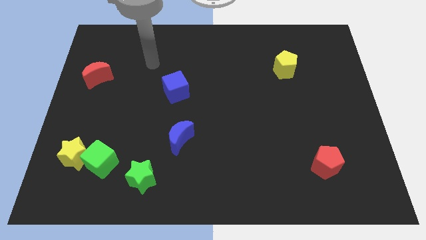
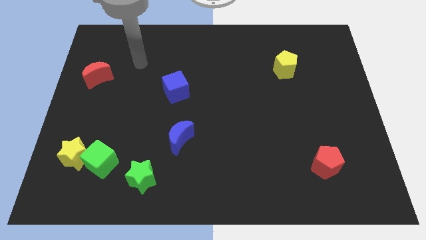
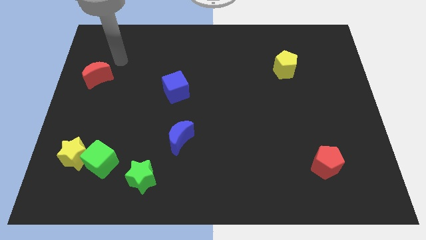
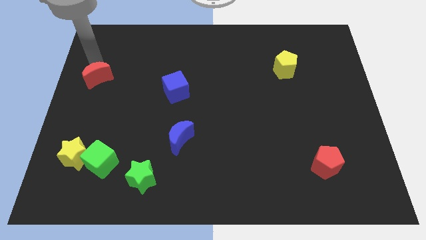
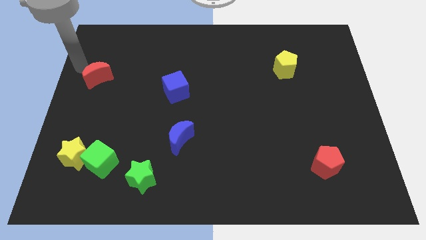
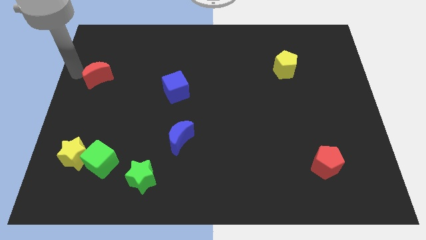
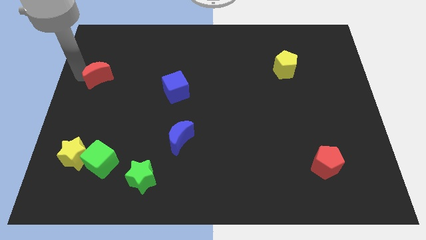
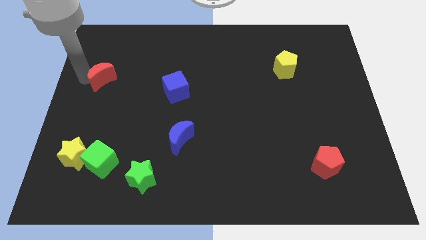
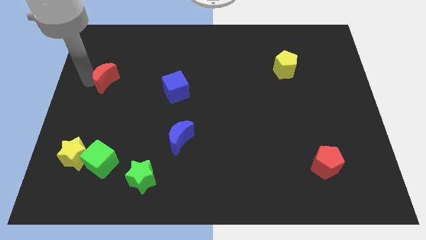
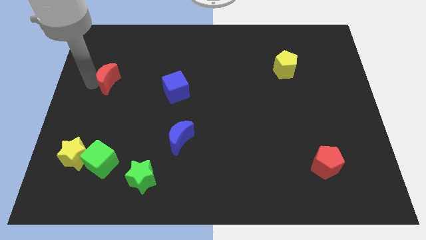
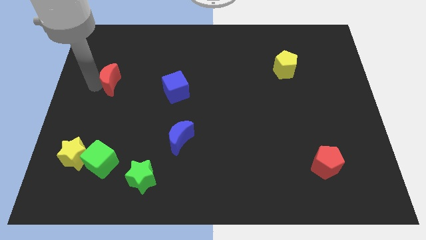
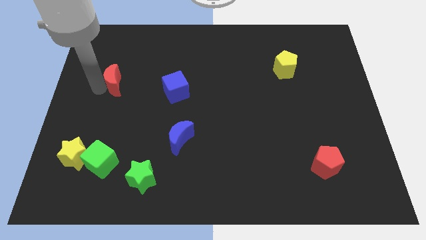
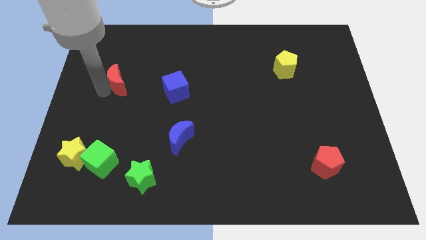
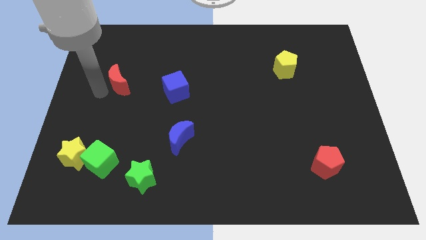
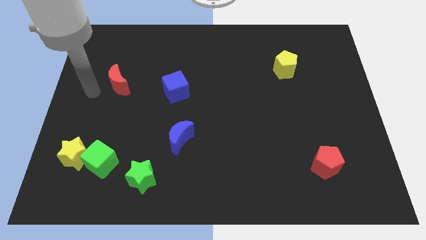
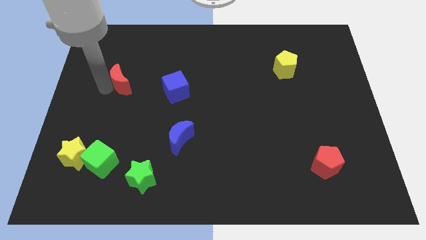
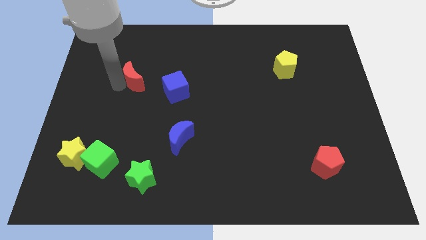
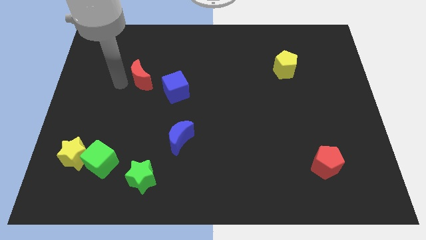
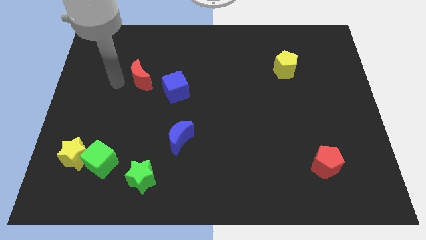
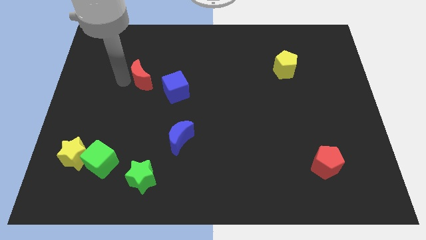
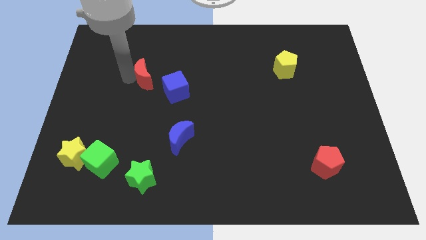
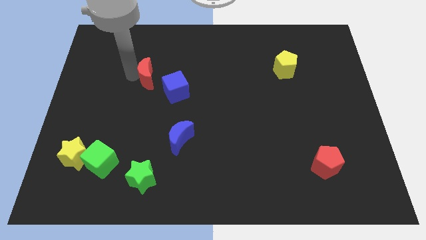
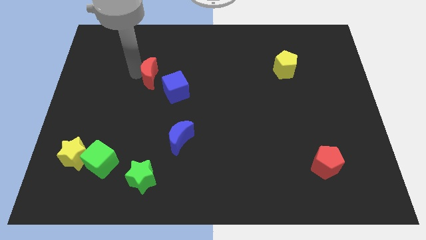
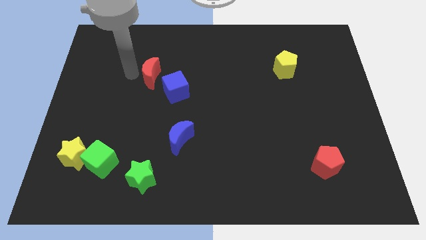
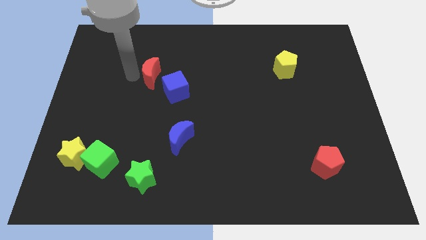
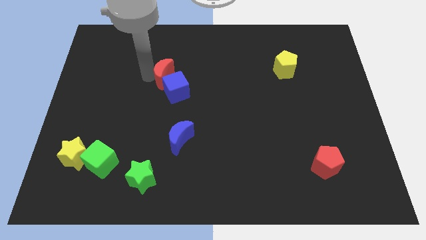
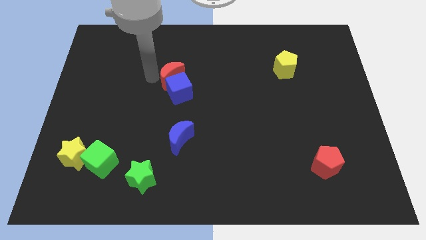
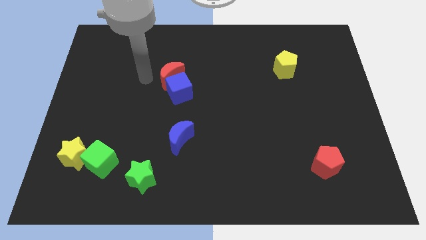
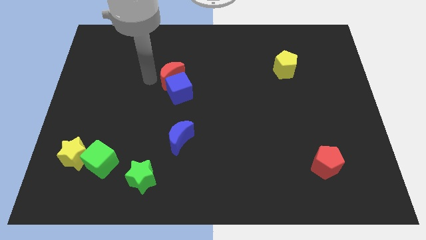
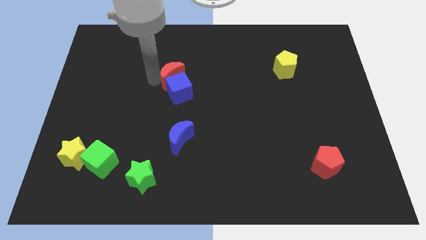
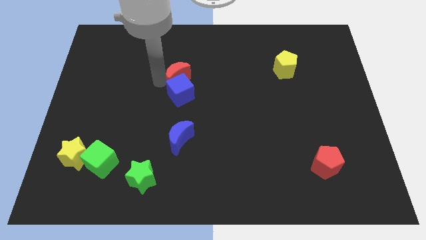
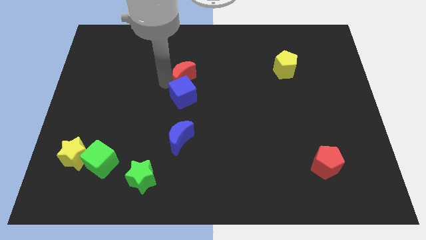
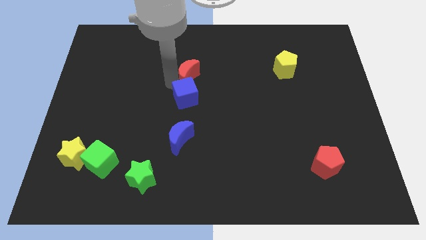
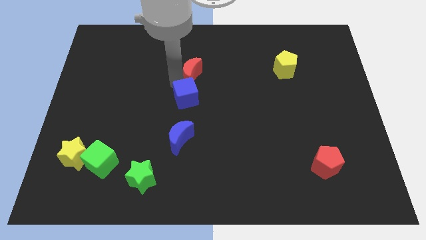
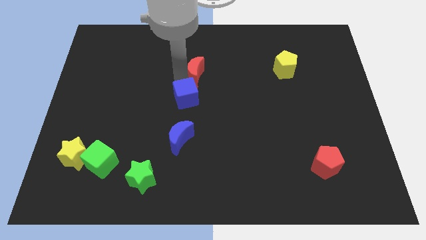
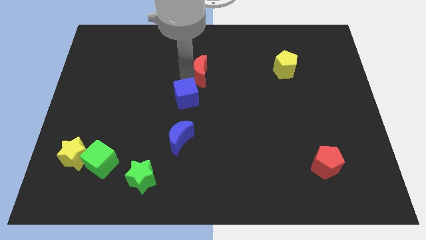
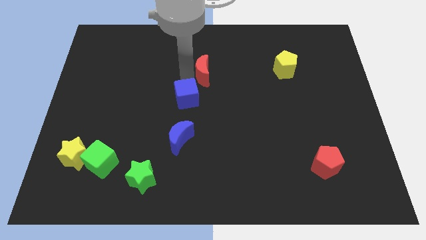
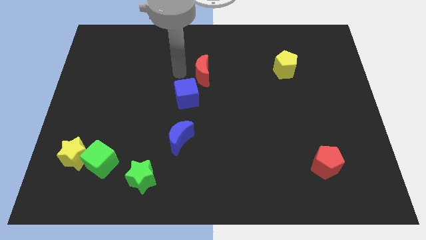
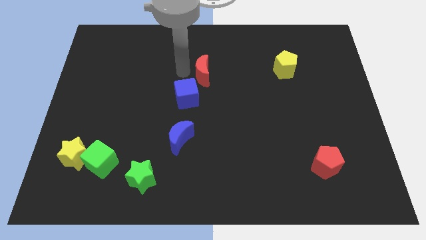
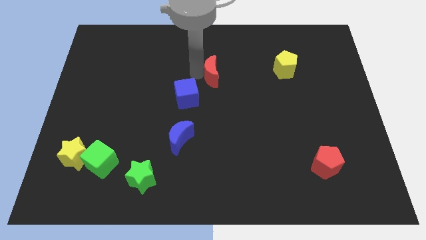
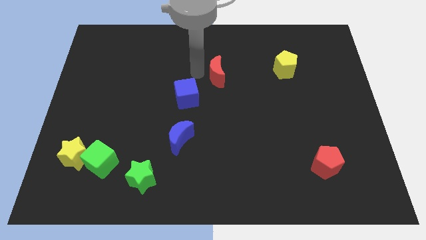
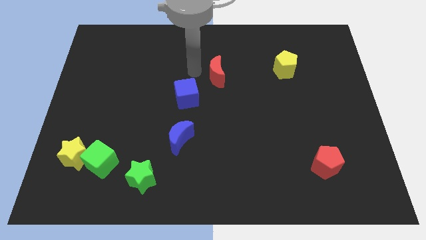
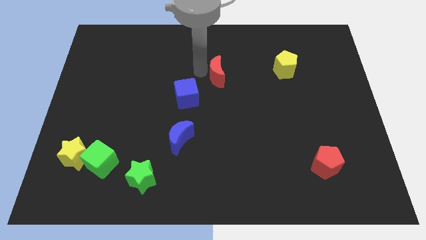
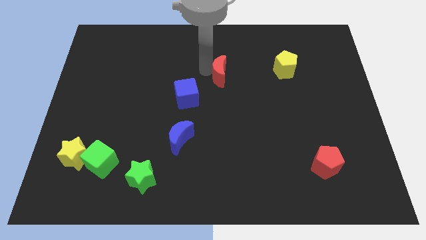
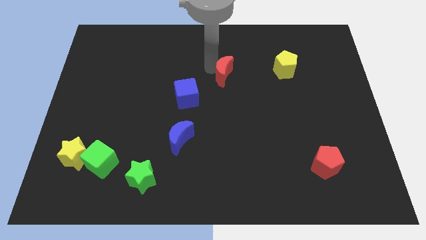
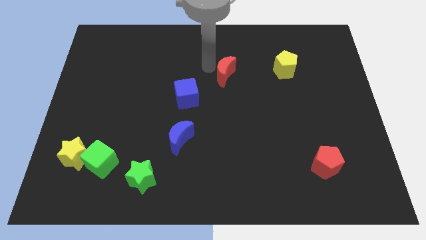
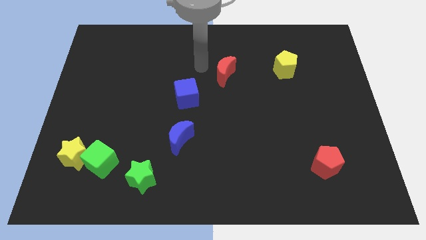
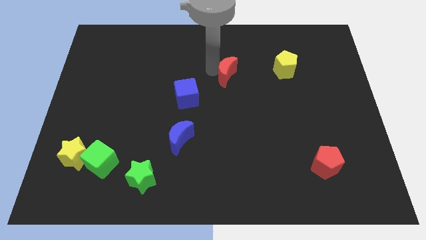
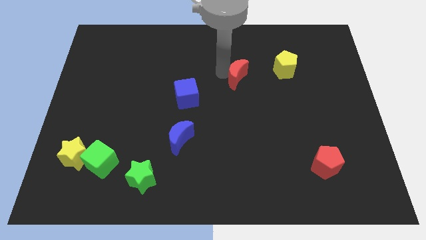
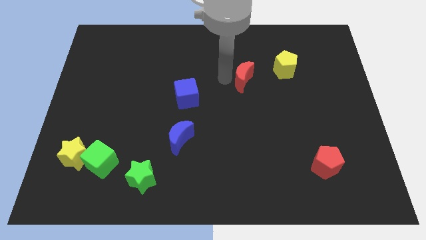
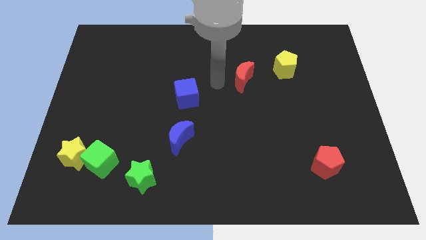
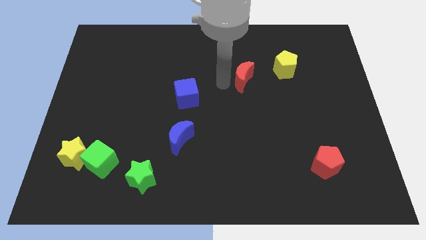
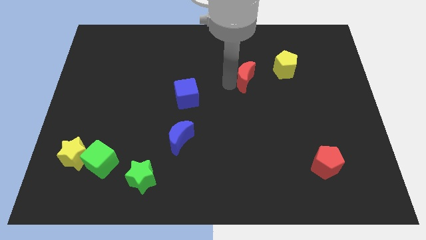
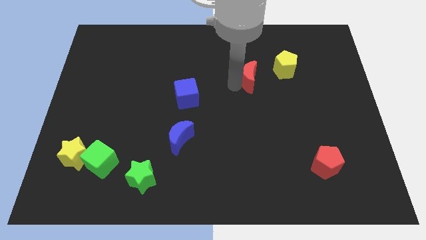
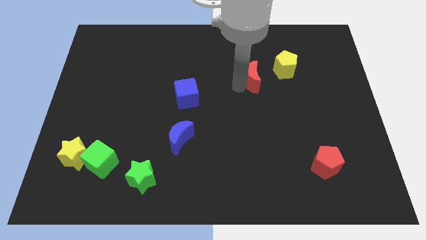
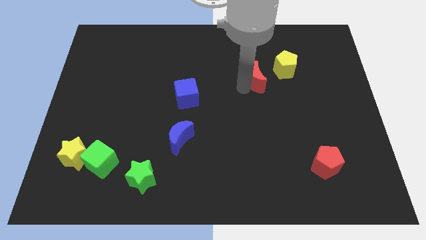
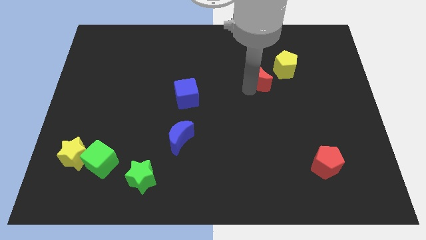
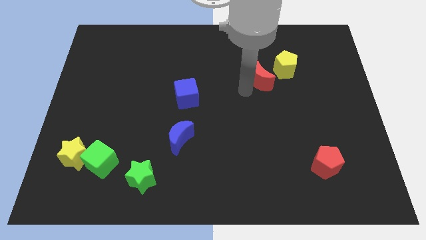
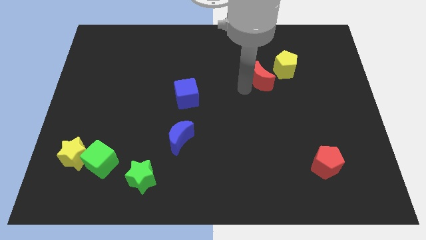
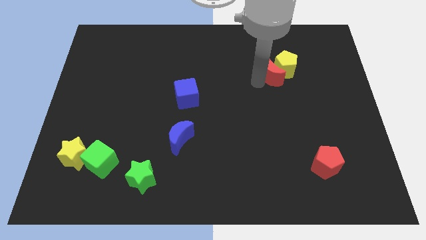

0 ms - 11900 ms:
slide the red moon next to the yellow pentagon

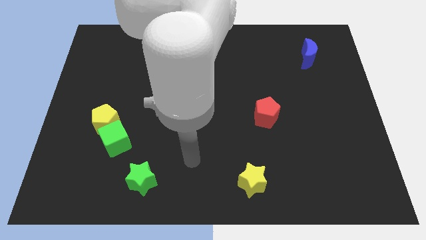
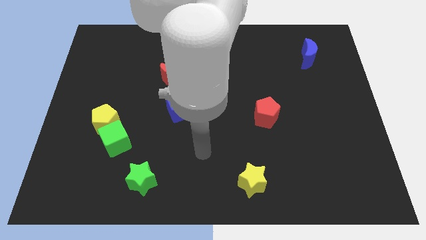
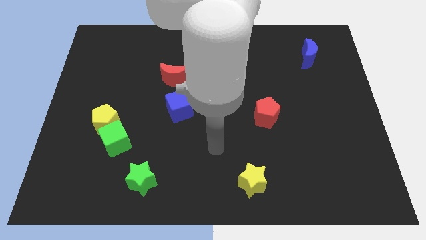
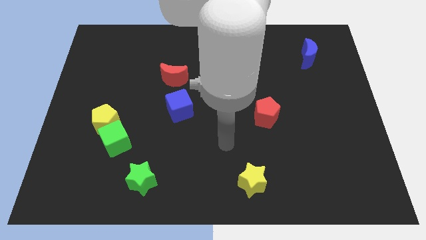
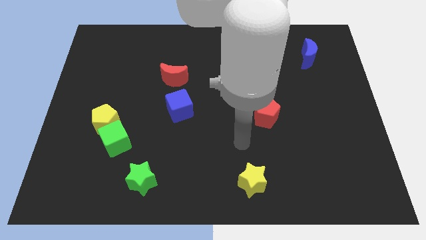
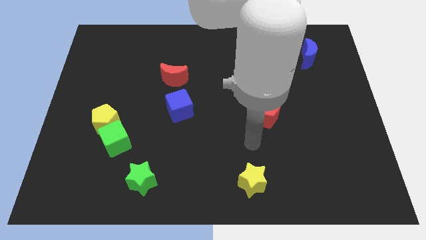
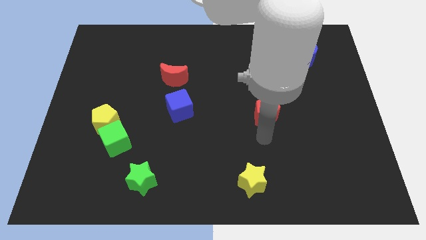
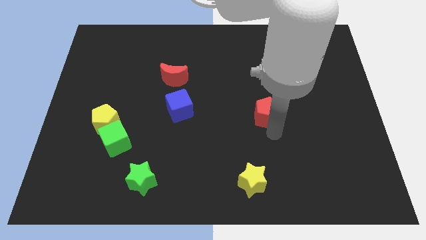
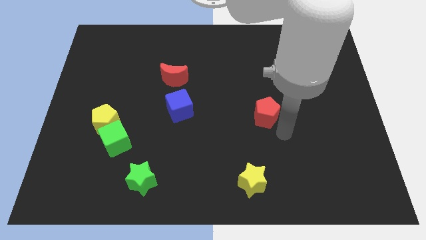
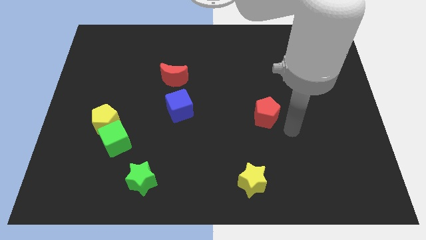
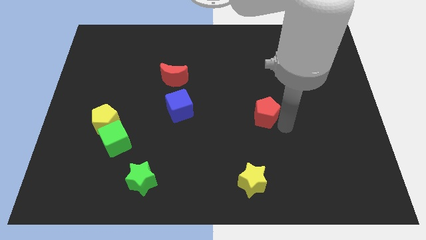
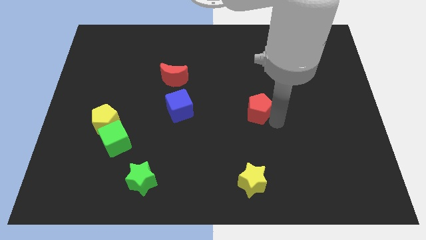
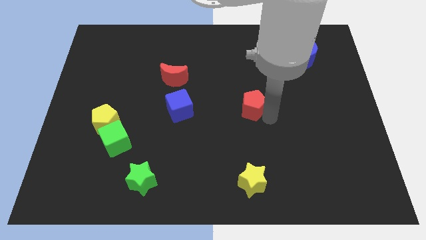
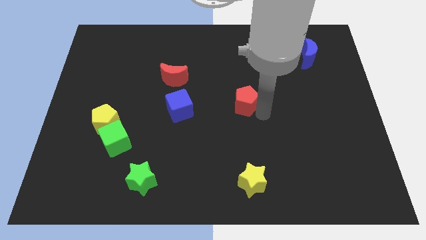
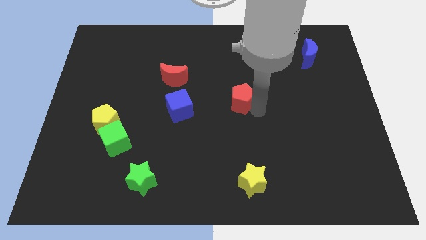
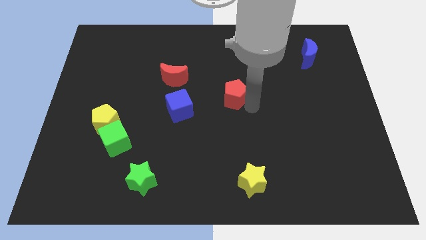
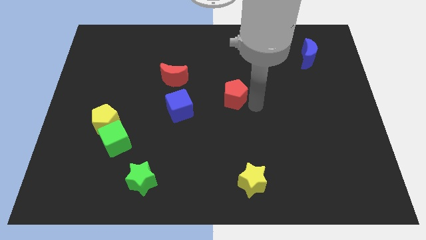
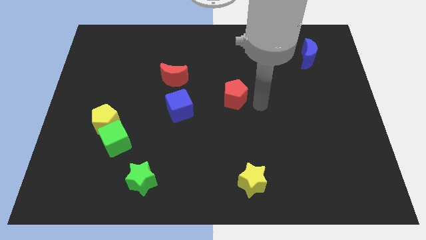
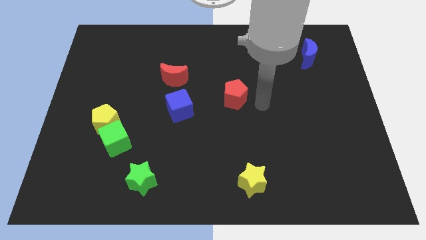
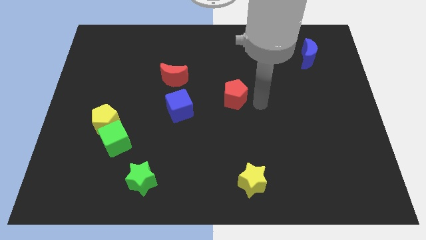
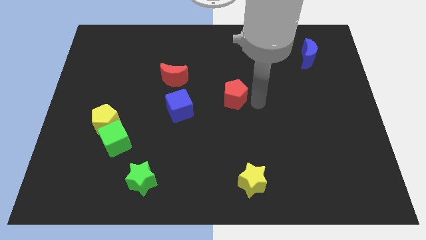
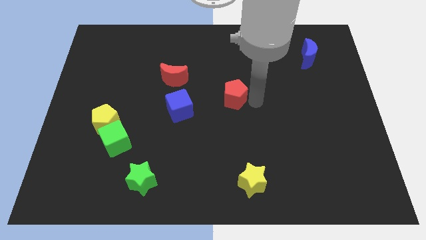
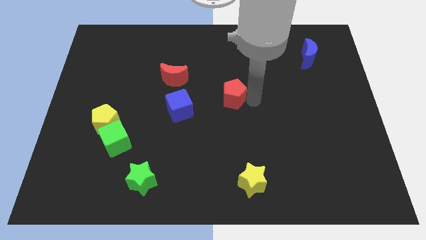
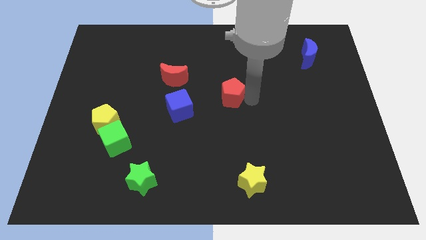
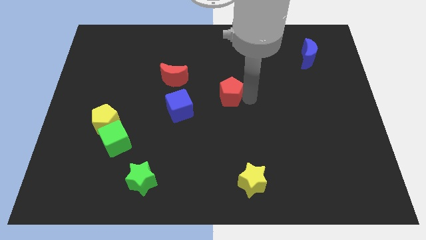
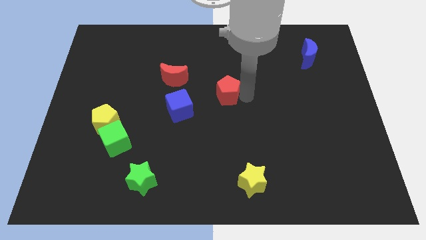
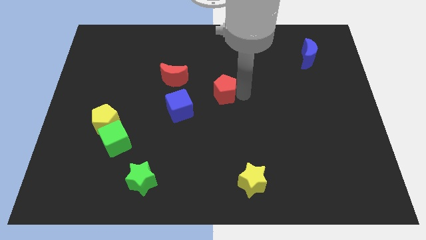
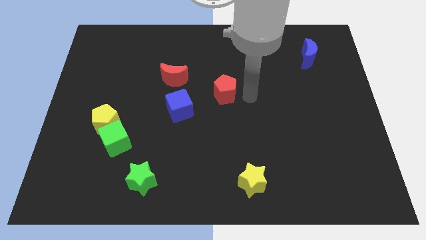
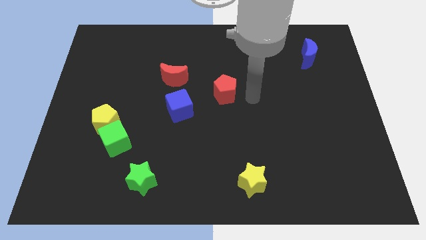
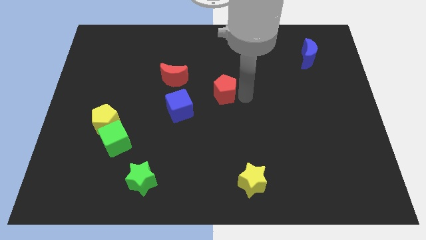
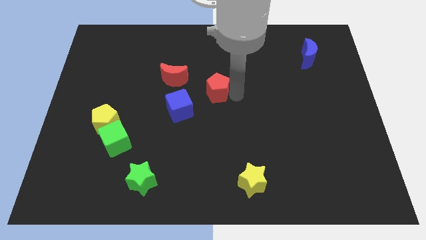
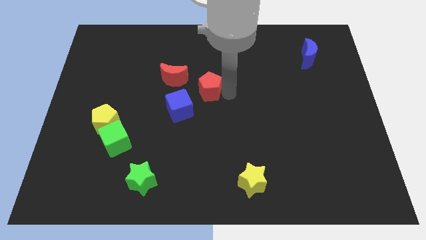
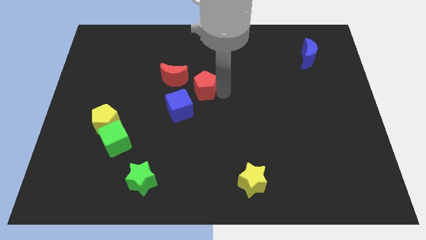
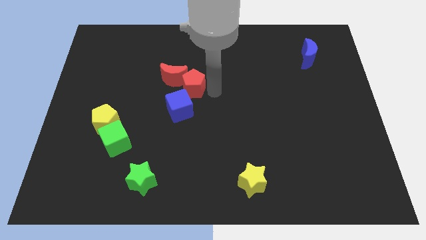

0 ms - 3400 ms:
push the red pentagon to the red moon
